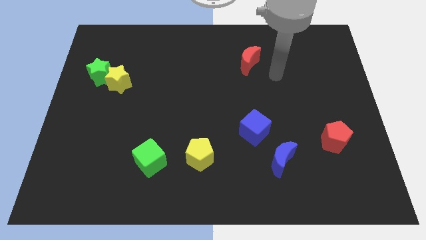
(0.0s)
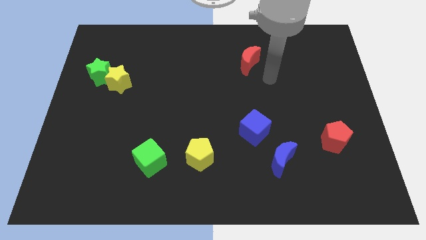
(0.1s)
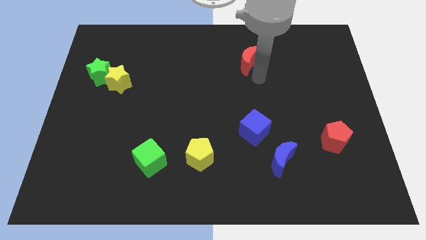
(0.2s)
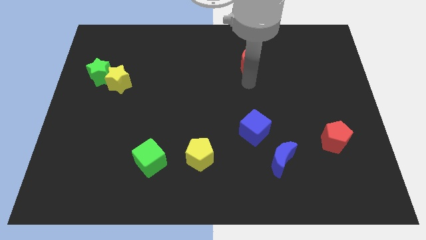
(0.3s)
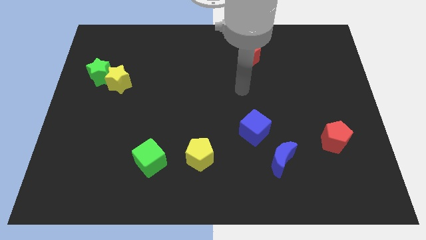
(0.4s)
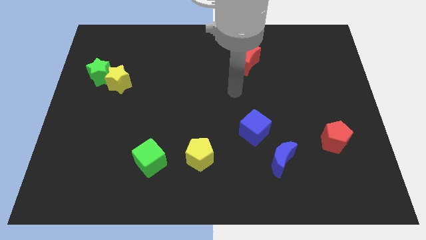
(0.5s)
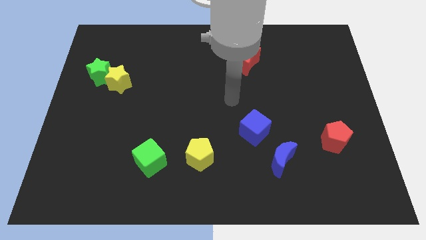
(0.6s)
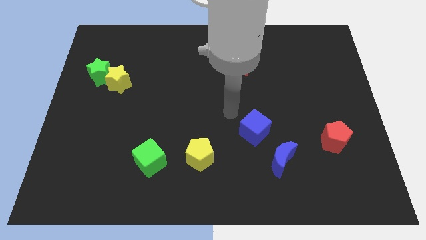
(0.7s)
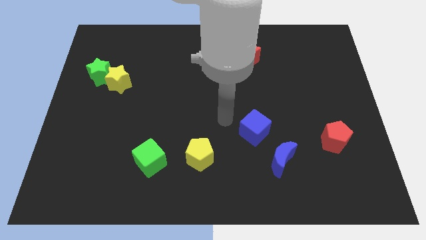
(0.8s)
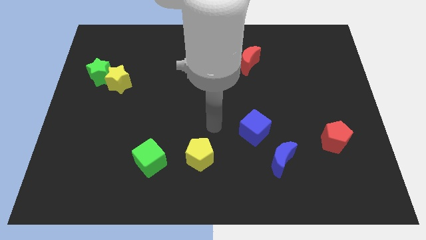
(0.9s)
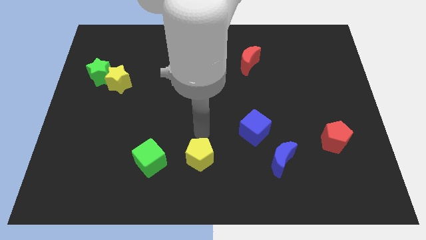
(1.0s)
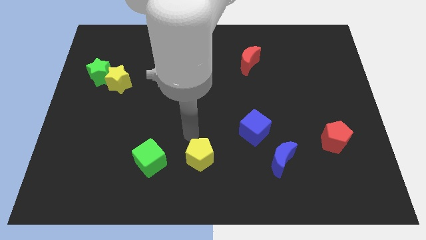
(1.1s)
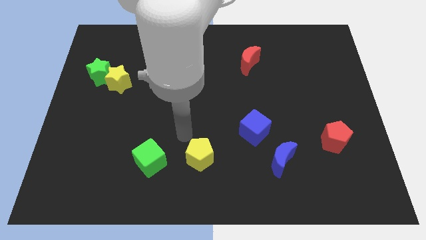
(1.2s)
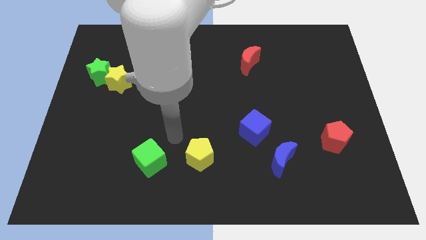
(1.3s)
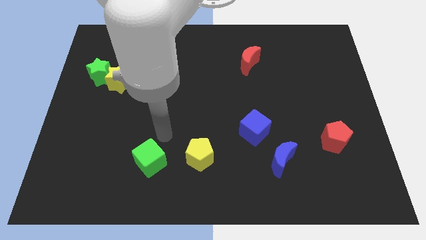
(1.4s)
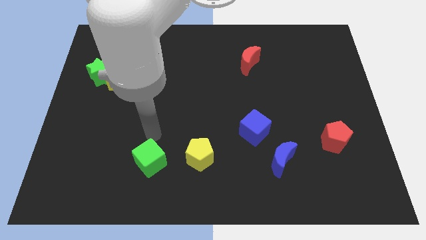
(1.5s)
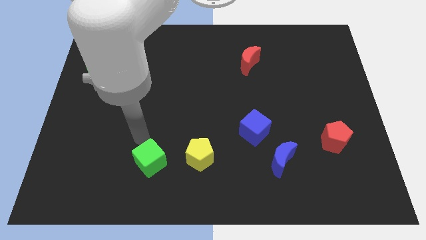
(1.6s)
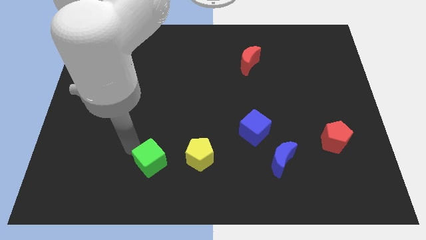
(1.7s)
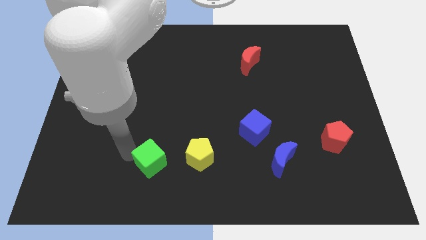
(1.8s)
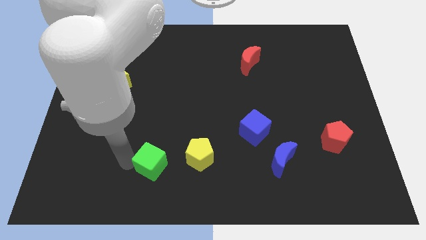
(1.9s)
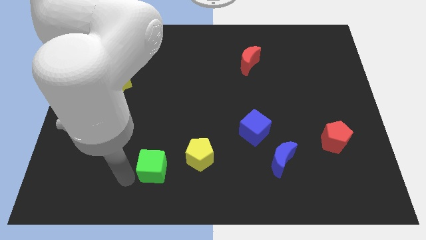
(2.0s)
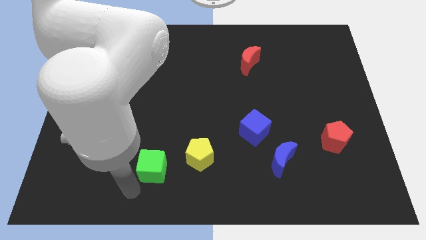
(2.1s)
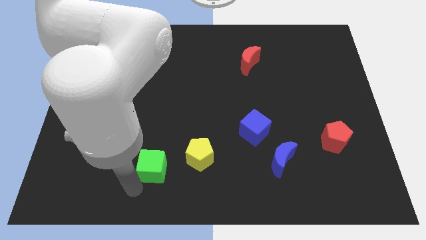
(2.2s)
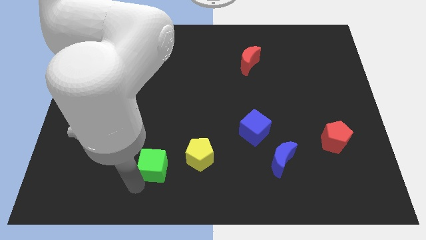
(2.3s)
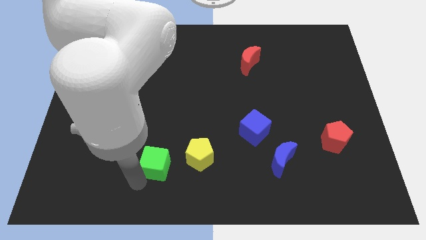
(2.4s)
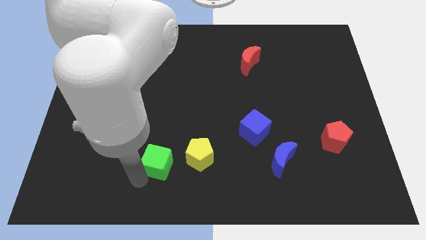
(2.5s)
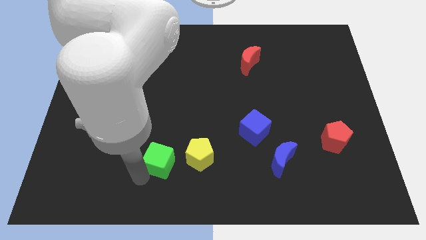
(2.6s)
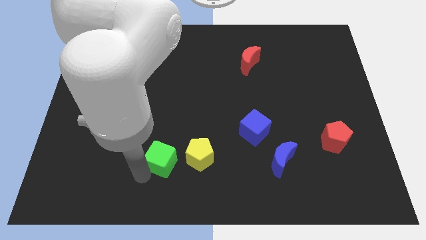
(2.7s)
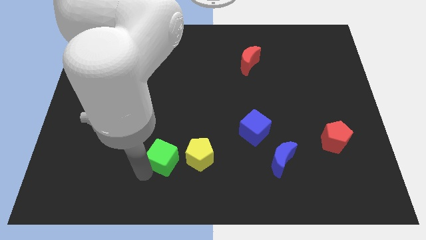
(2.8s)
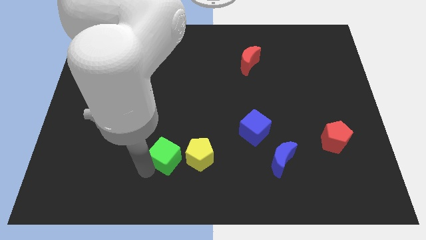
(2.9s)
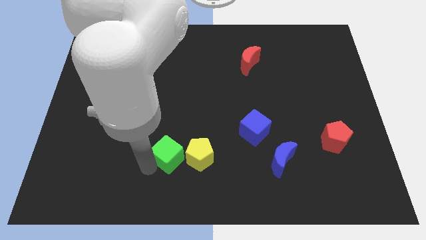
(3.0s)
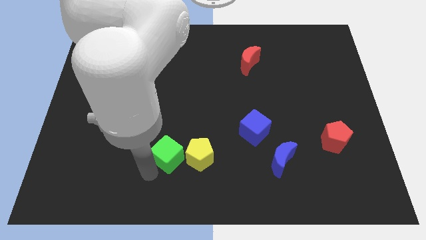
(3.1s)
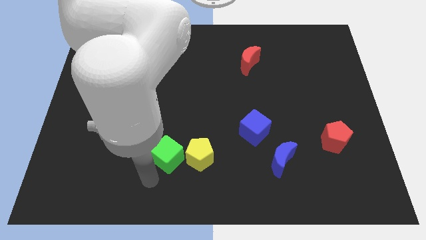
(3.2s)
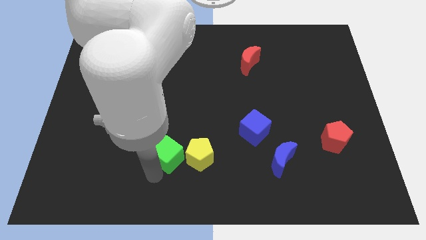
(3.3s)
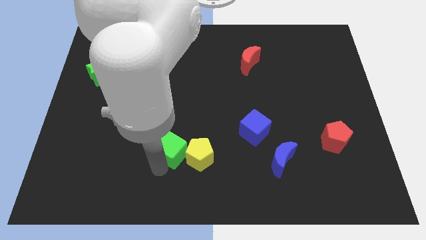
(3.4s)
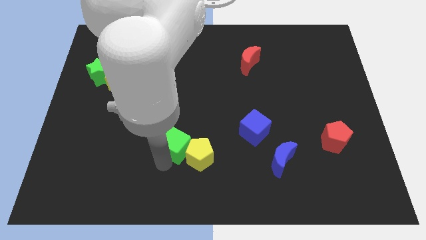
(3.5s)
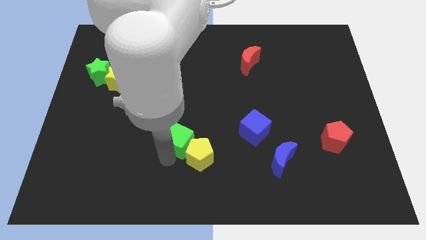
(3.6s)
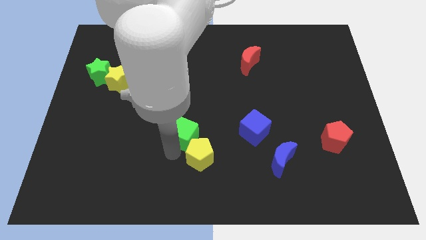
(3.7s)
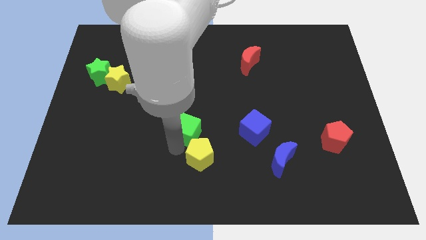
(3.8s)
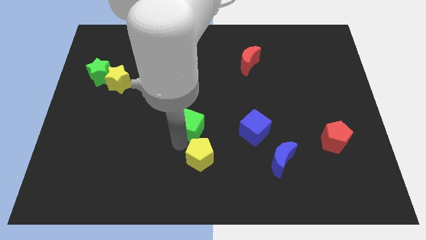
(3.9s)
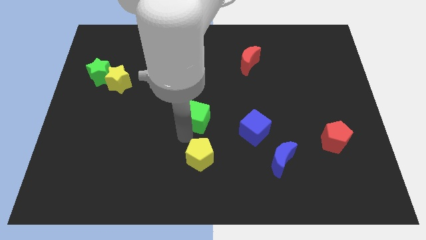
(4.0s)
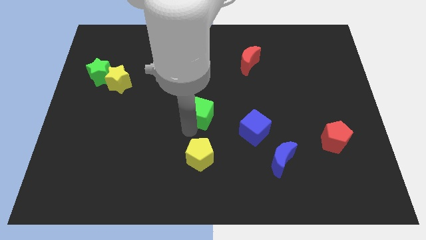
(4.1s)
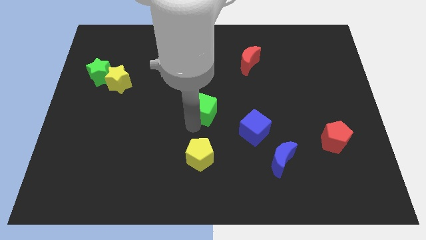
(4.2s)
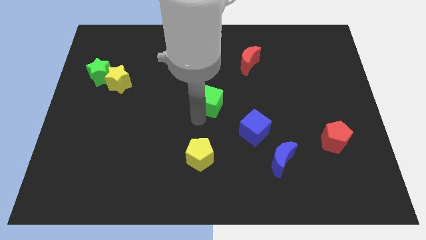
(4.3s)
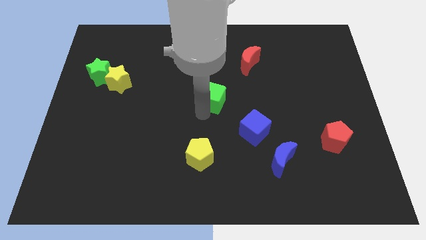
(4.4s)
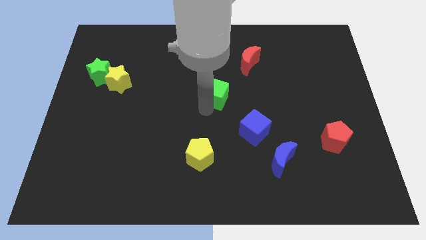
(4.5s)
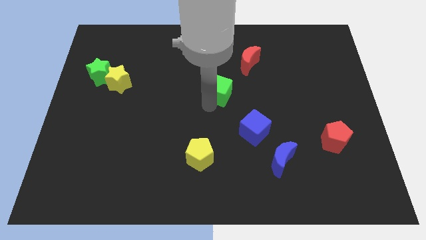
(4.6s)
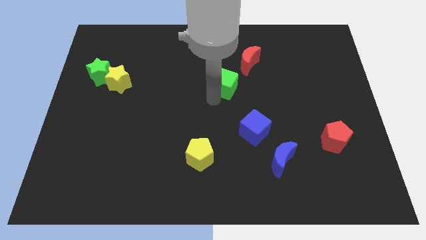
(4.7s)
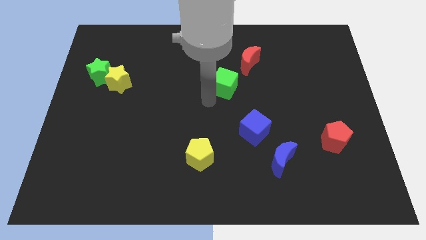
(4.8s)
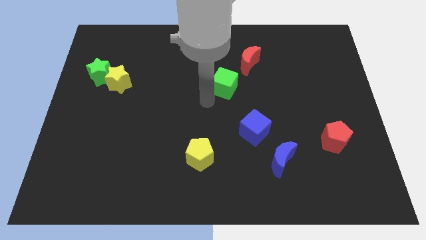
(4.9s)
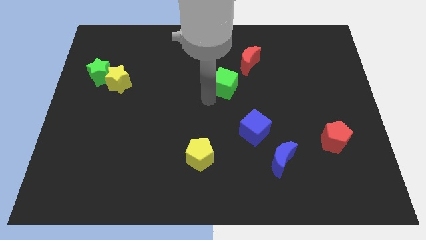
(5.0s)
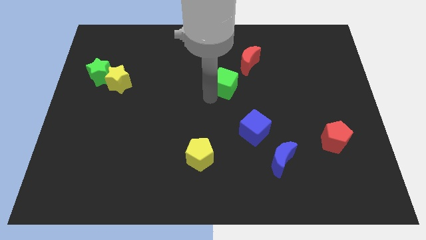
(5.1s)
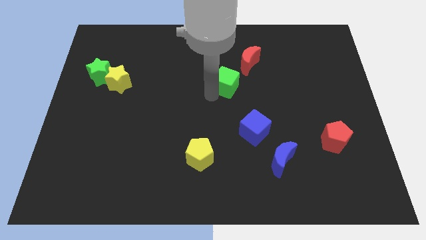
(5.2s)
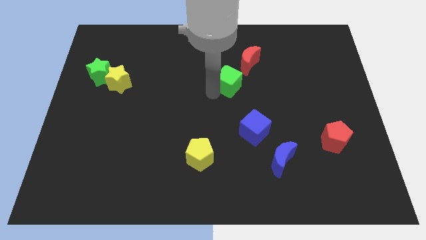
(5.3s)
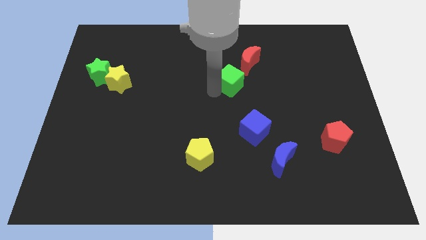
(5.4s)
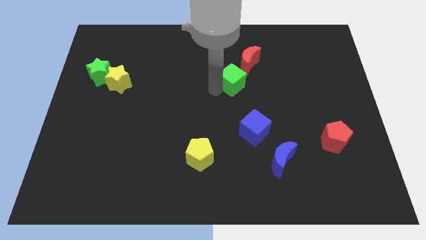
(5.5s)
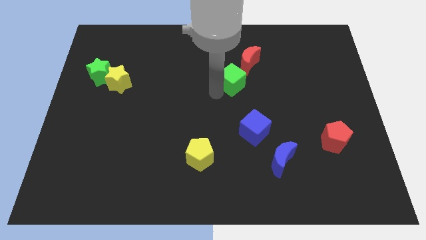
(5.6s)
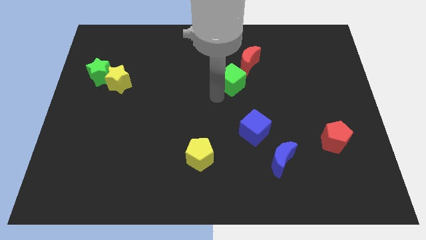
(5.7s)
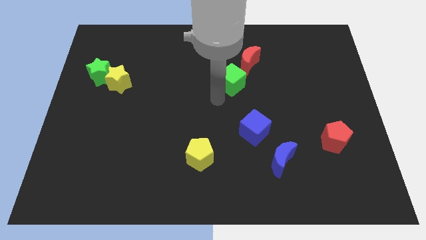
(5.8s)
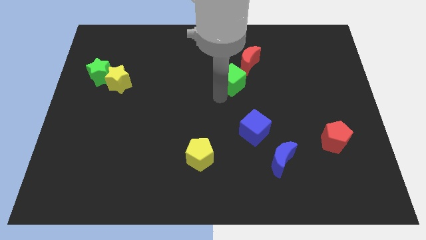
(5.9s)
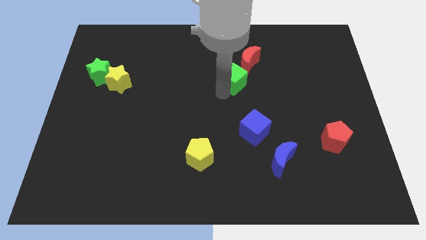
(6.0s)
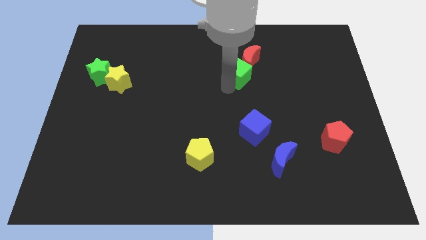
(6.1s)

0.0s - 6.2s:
slide the green cube to the red moon

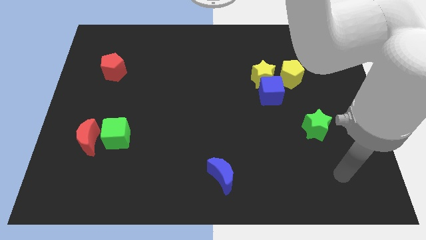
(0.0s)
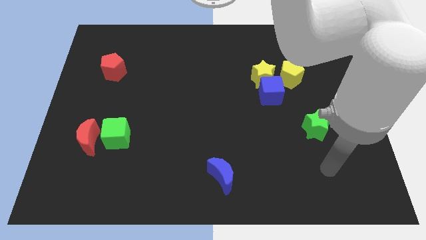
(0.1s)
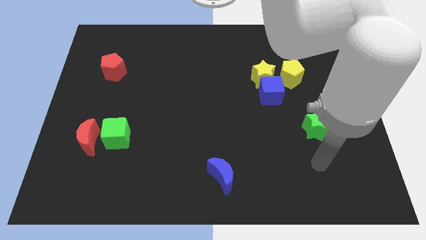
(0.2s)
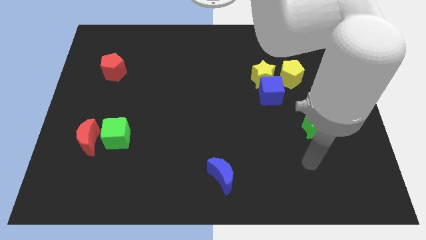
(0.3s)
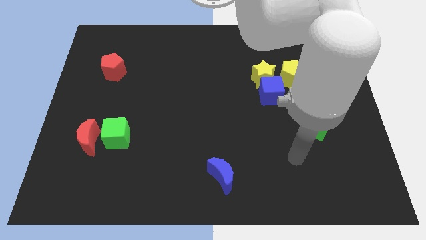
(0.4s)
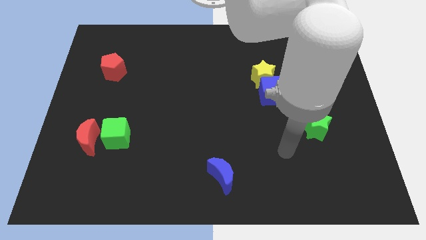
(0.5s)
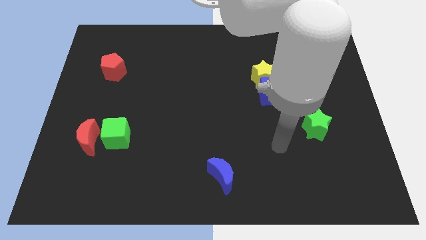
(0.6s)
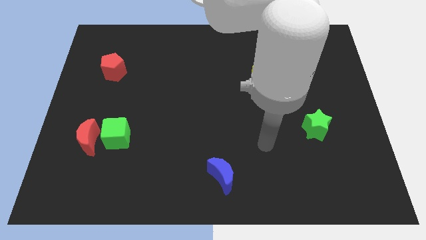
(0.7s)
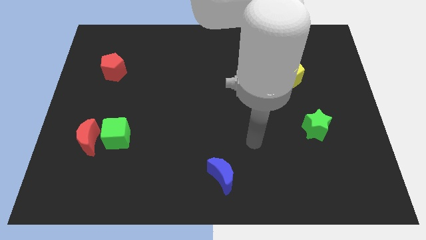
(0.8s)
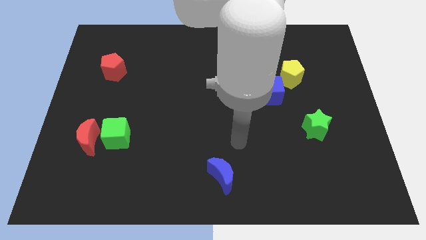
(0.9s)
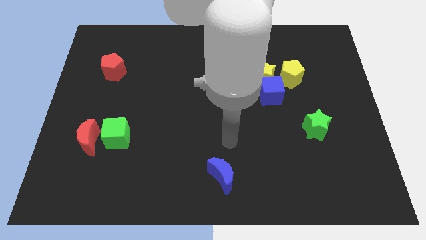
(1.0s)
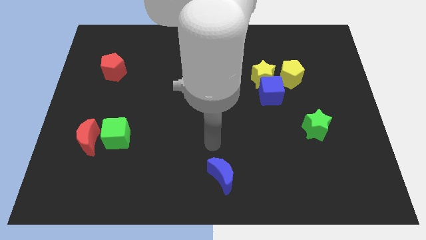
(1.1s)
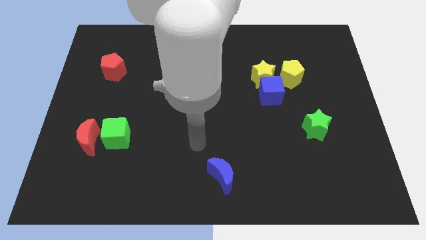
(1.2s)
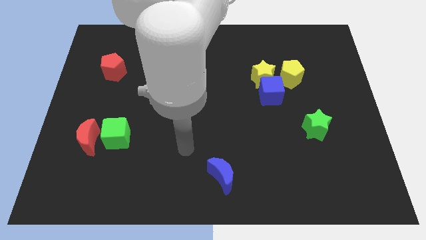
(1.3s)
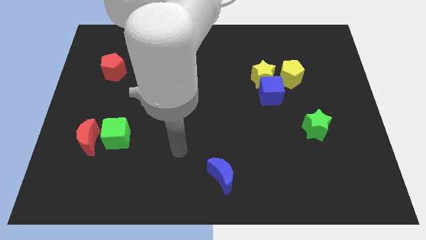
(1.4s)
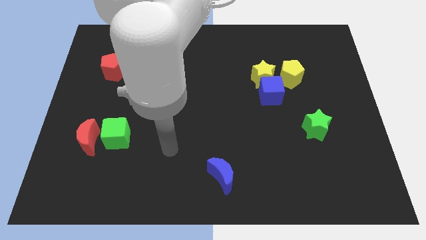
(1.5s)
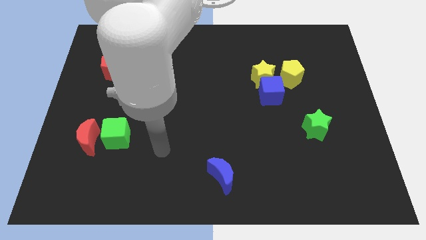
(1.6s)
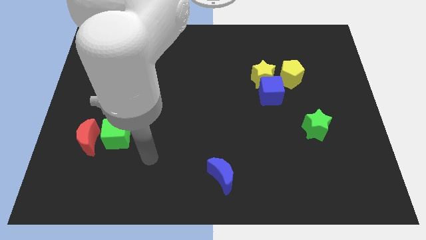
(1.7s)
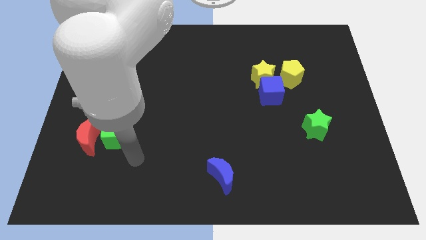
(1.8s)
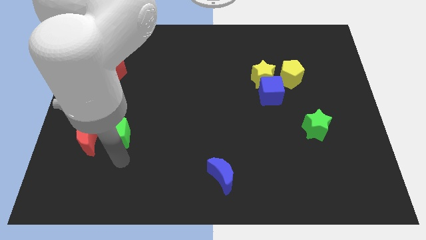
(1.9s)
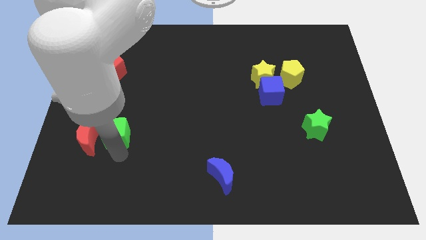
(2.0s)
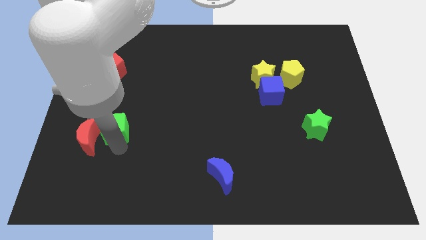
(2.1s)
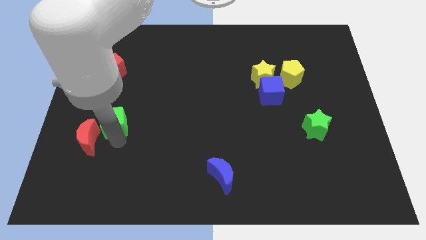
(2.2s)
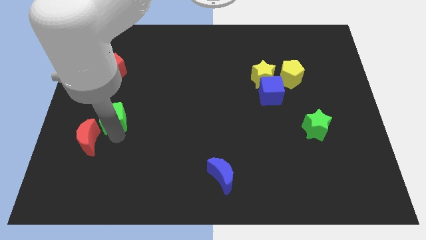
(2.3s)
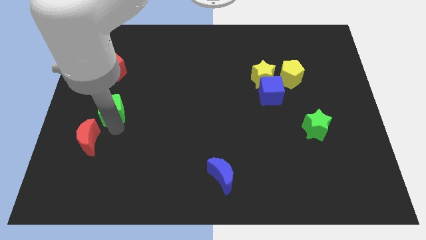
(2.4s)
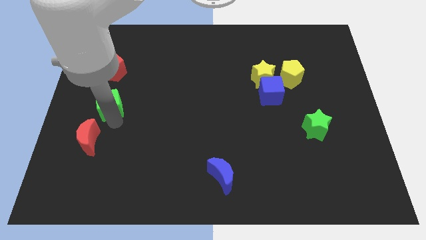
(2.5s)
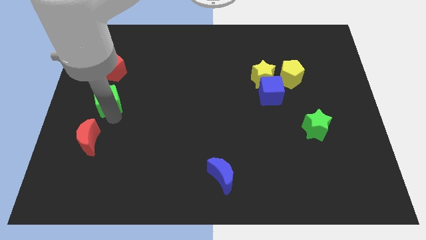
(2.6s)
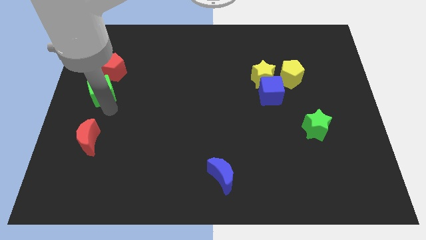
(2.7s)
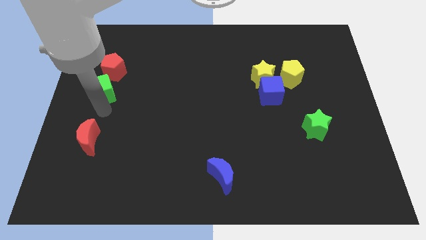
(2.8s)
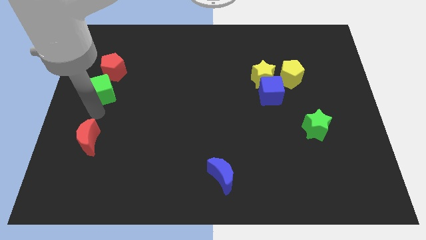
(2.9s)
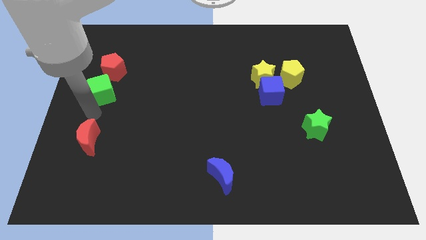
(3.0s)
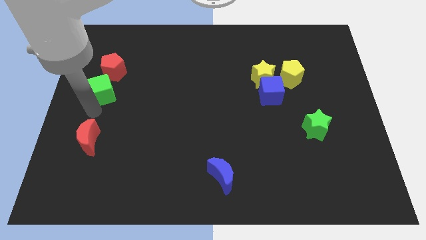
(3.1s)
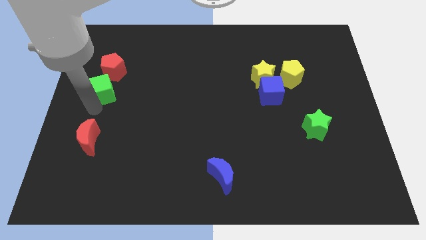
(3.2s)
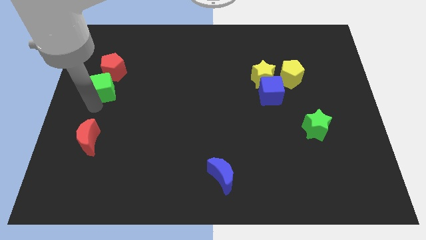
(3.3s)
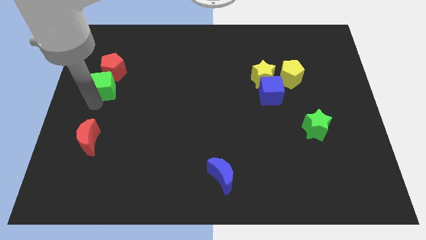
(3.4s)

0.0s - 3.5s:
move the green cube next to the red pentagon
